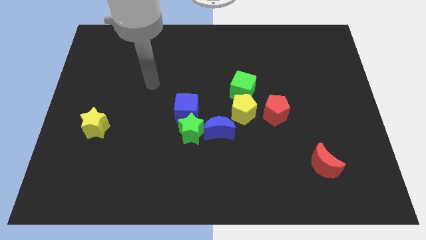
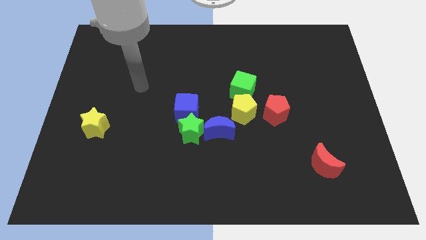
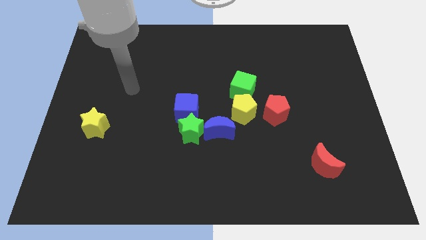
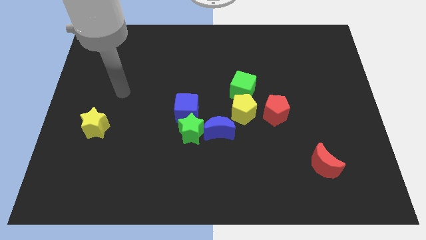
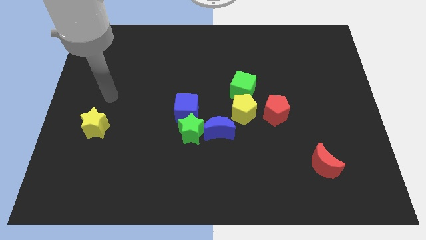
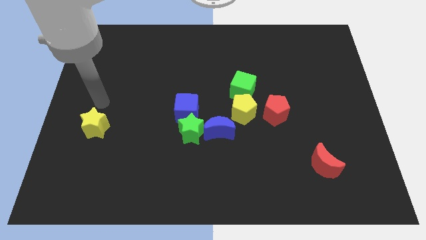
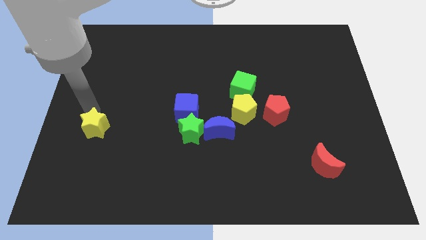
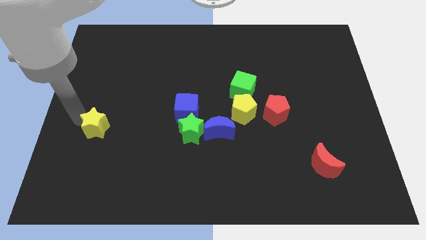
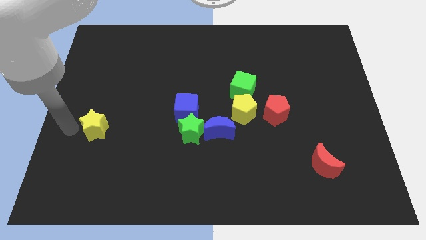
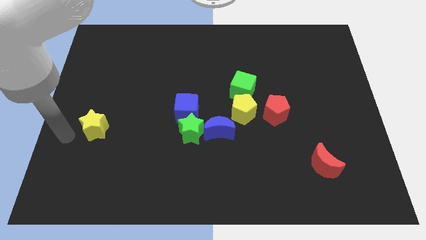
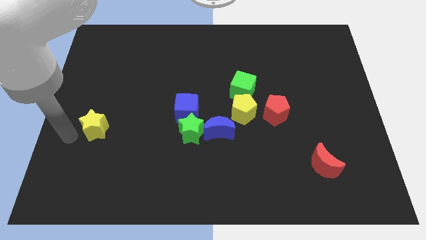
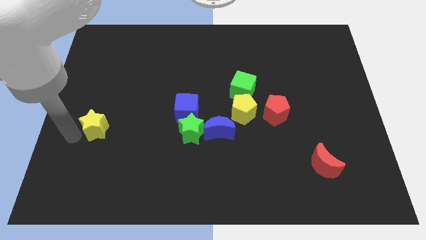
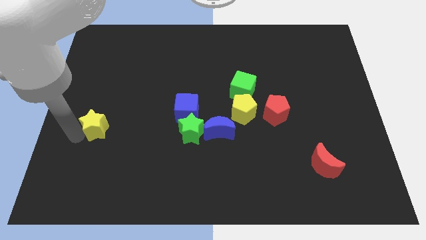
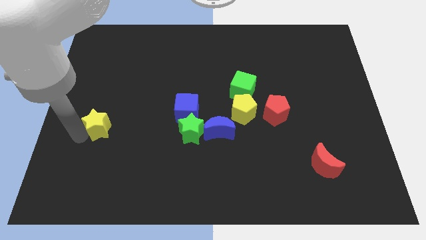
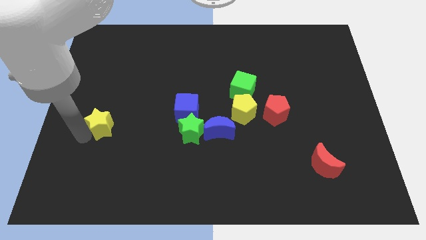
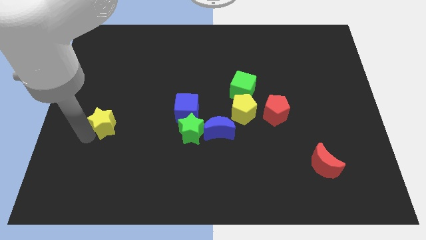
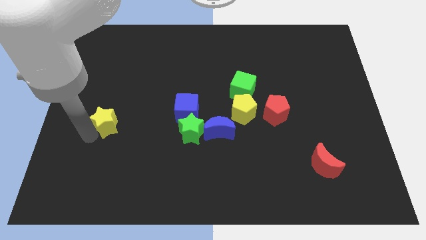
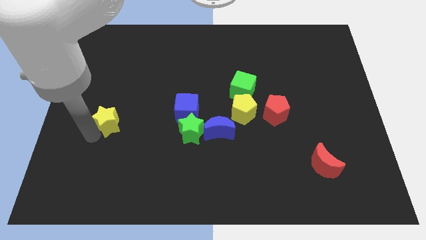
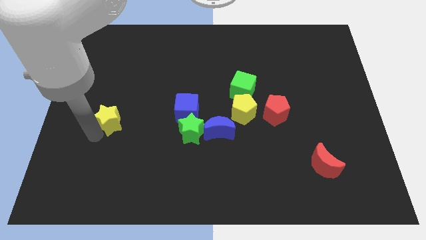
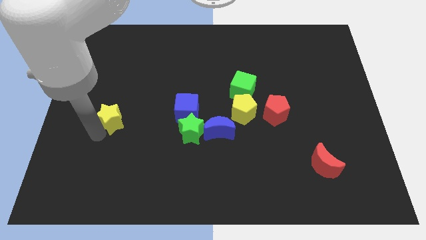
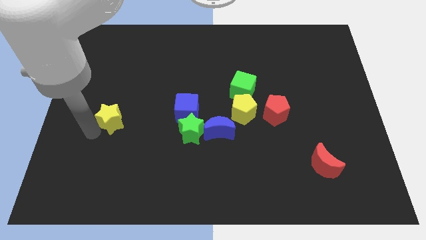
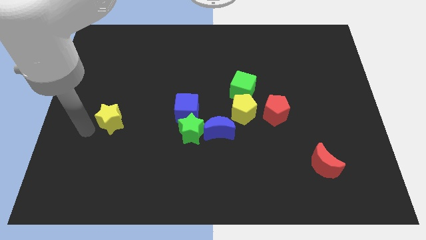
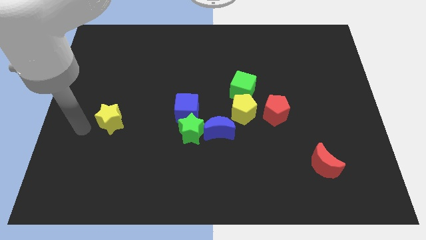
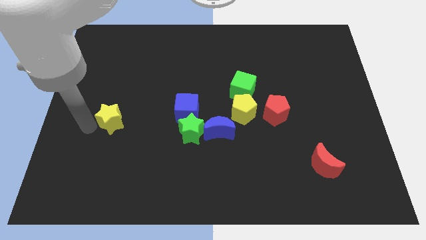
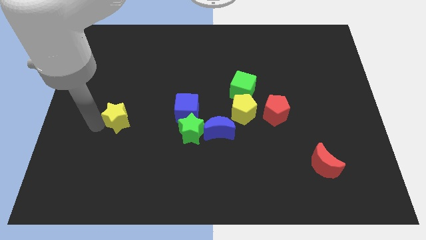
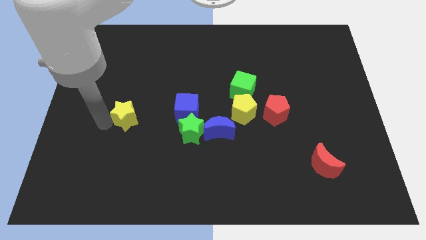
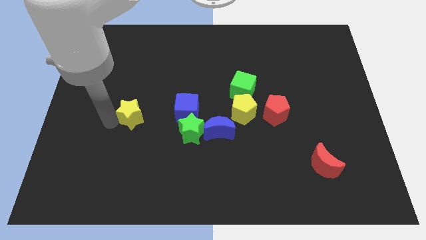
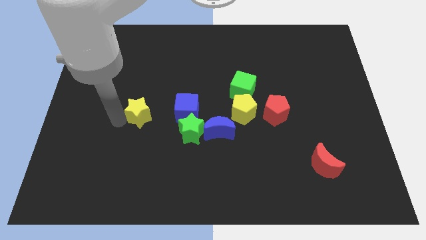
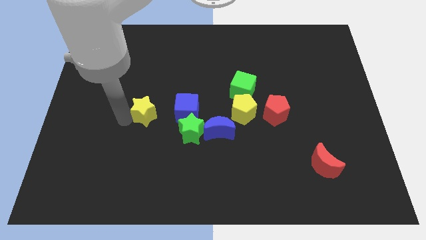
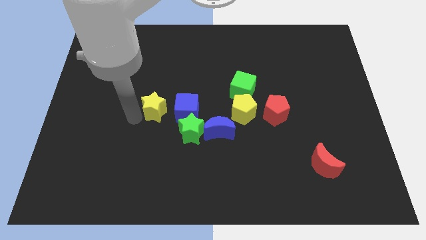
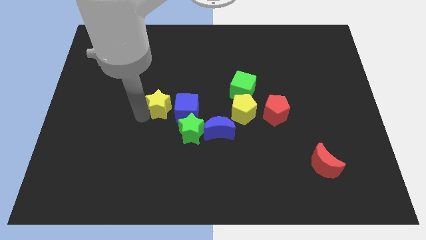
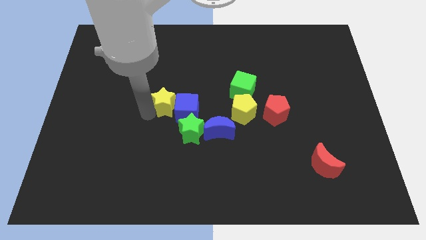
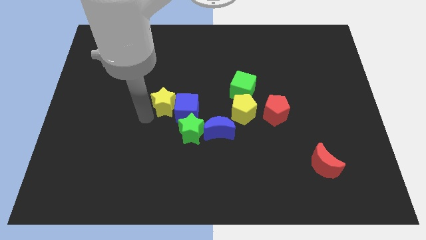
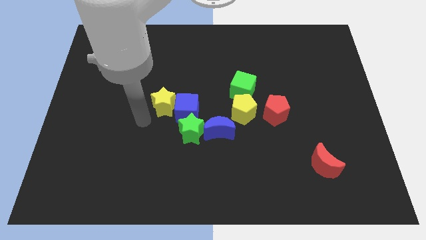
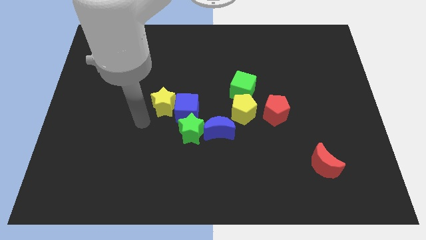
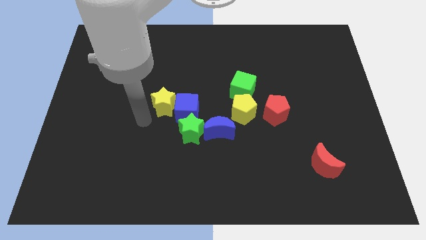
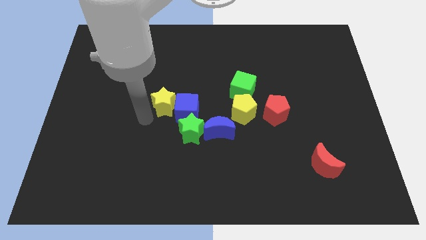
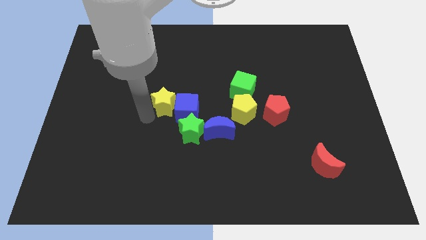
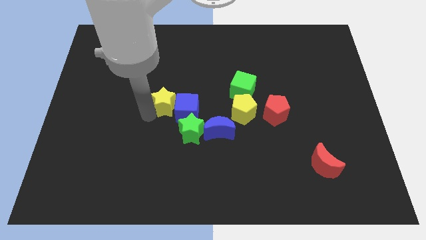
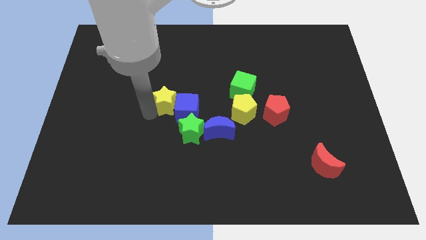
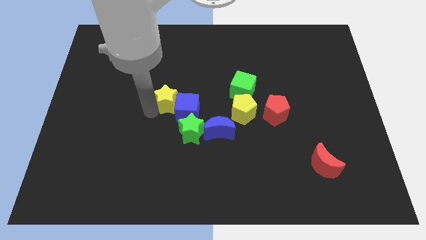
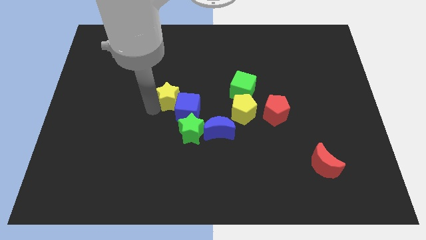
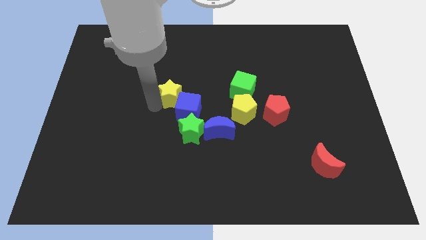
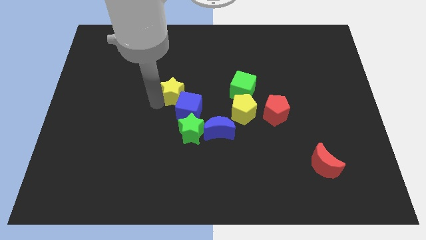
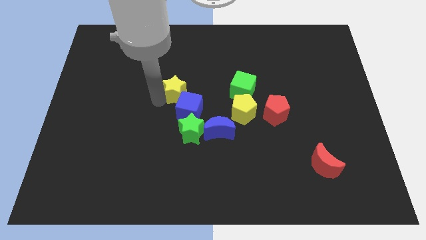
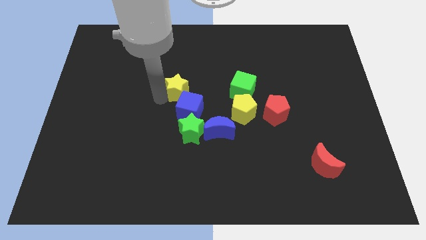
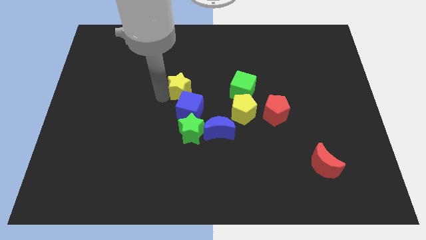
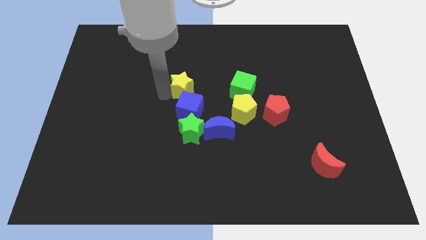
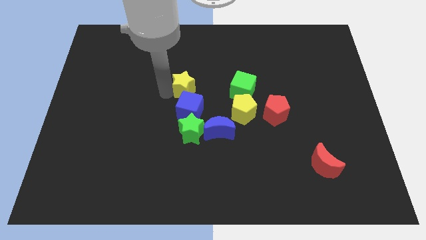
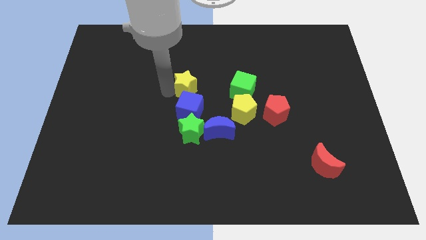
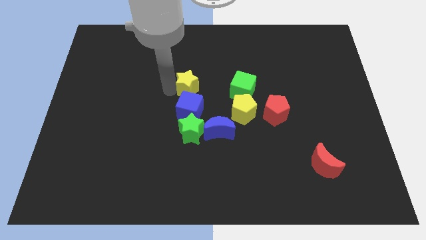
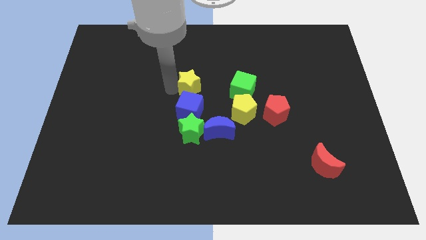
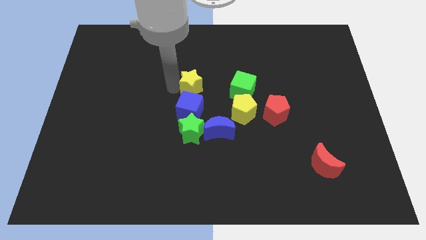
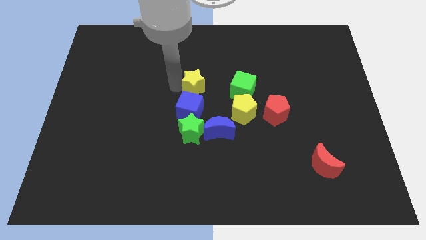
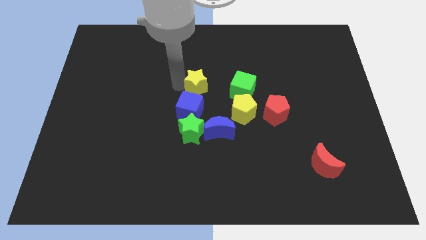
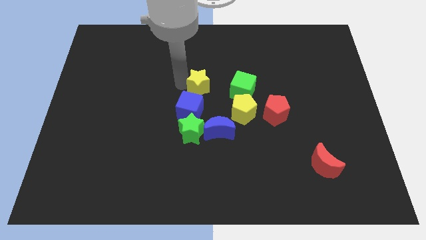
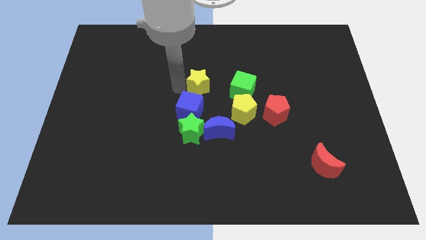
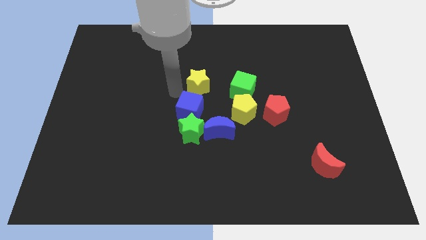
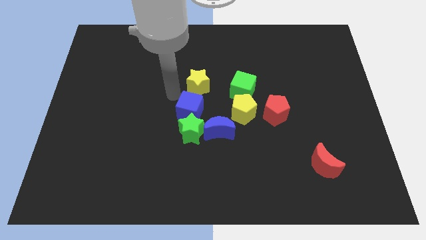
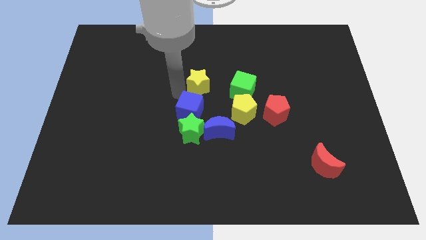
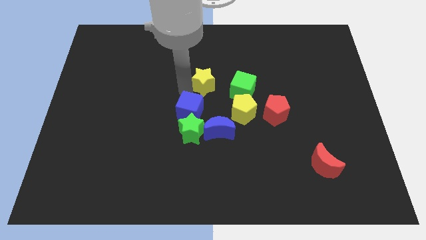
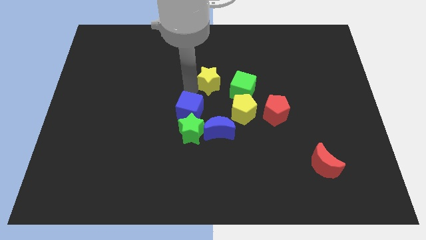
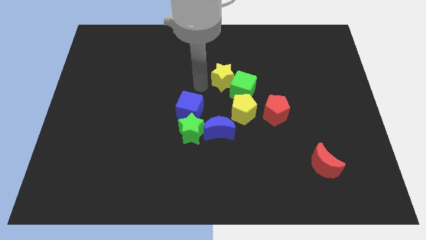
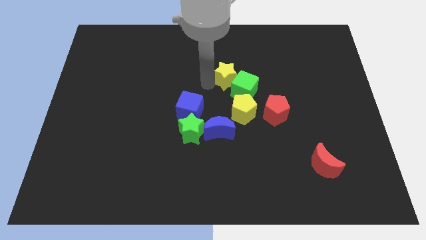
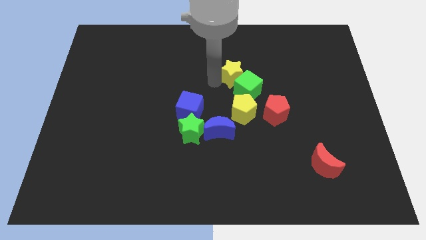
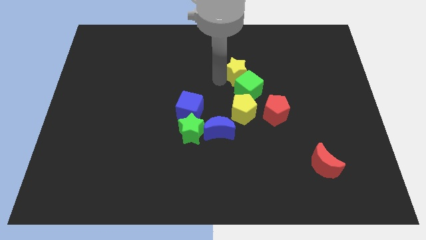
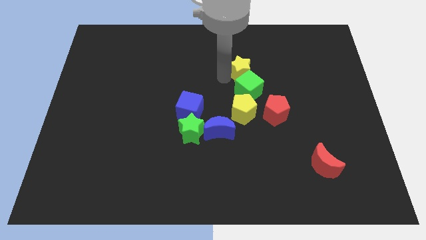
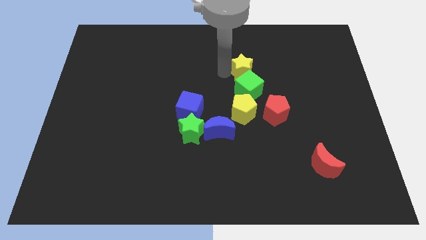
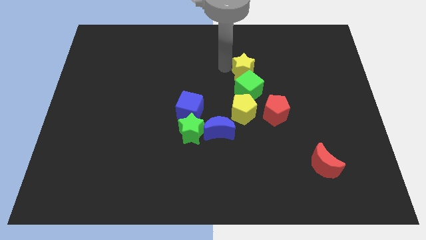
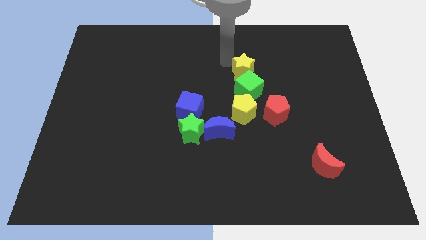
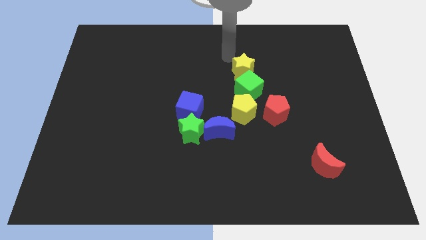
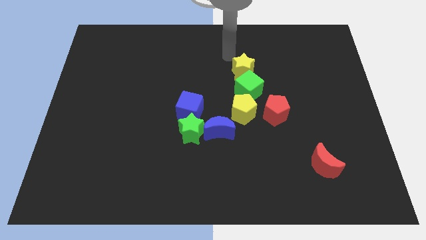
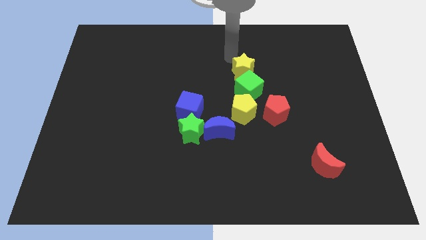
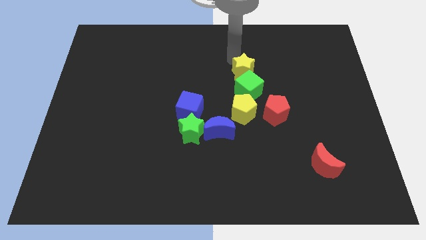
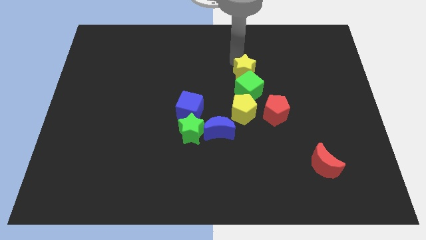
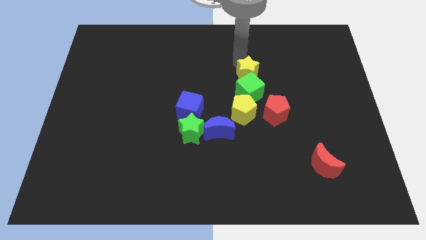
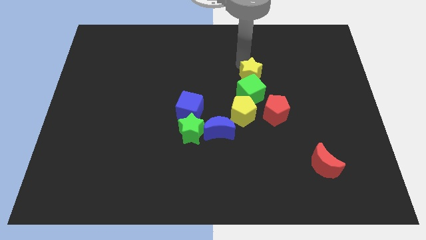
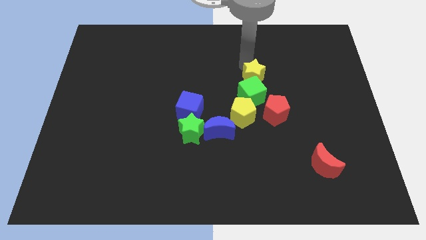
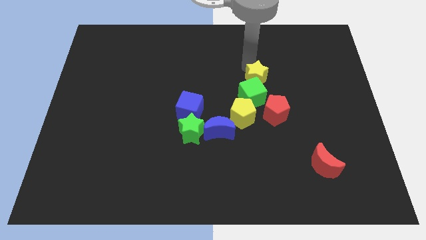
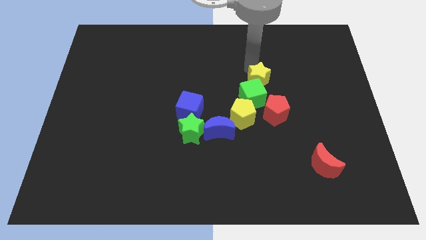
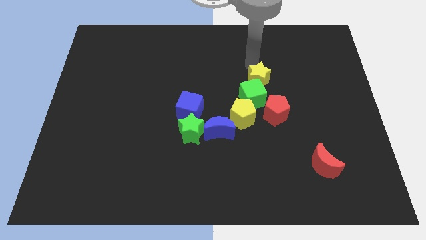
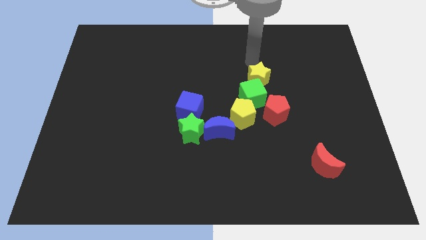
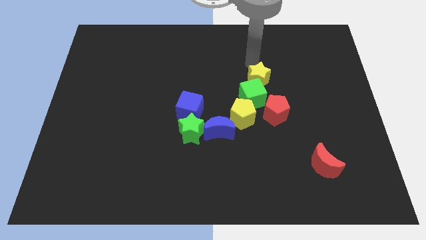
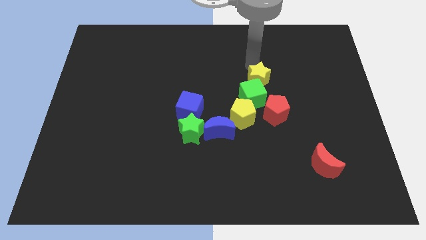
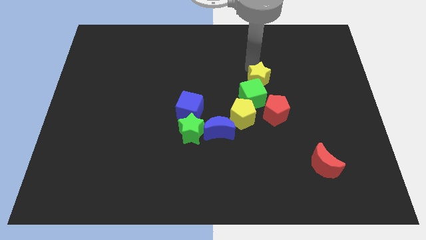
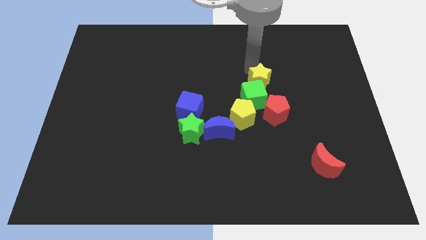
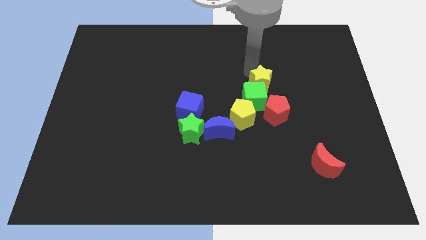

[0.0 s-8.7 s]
move the yellow star to the top right of the yellow pentagon
